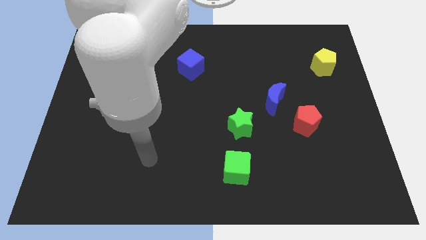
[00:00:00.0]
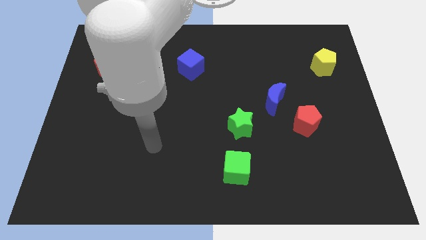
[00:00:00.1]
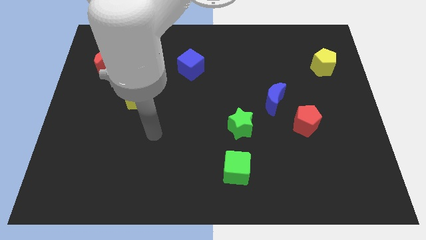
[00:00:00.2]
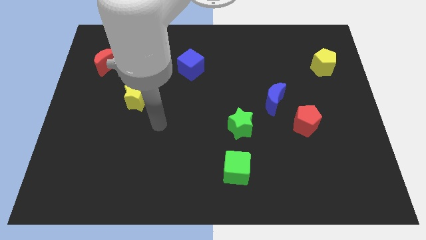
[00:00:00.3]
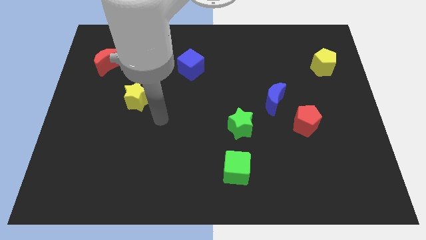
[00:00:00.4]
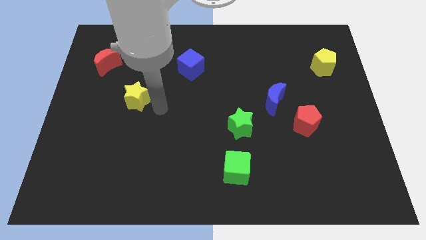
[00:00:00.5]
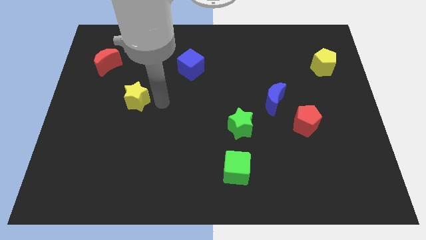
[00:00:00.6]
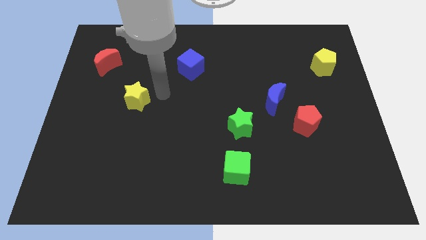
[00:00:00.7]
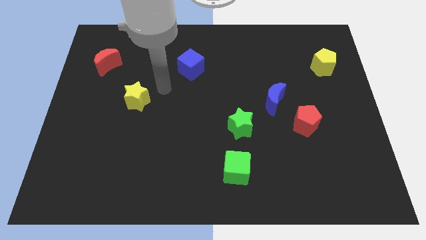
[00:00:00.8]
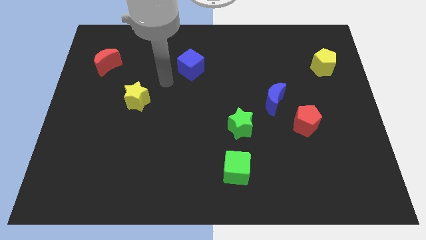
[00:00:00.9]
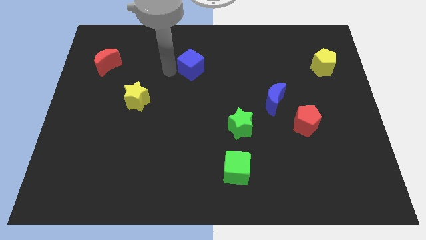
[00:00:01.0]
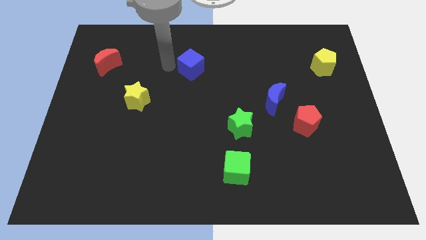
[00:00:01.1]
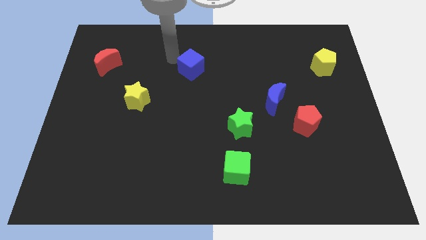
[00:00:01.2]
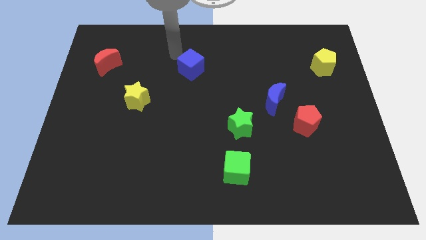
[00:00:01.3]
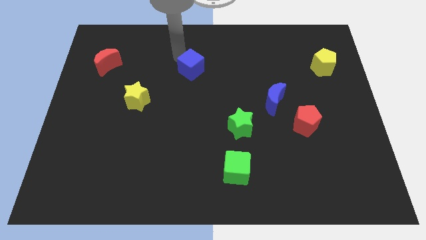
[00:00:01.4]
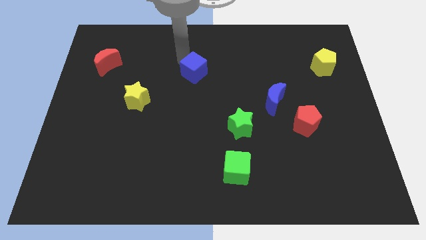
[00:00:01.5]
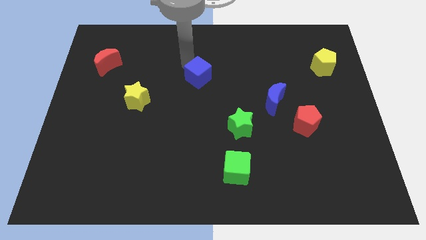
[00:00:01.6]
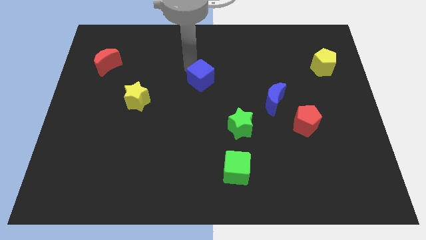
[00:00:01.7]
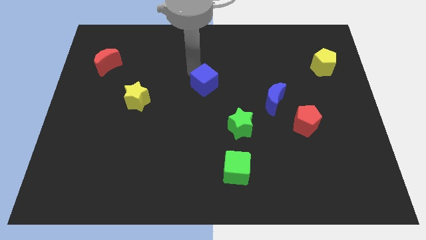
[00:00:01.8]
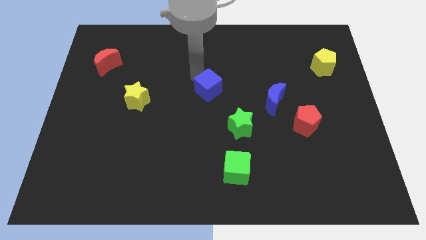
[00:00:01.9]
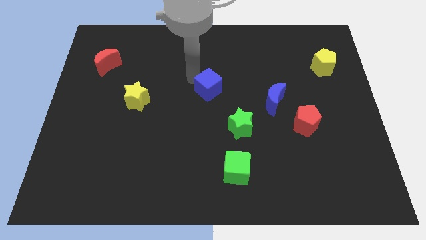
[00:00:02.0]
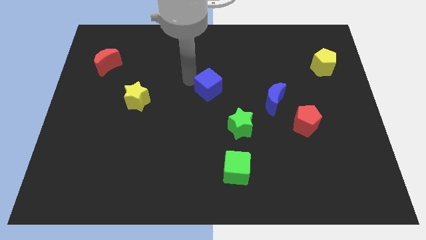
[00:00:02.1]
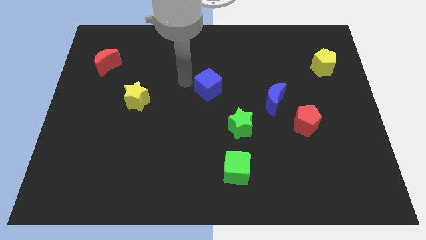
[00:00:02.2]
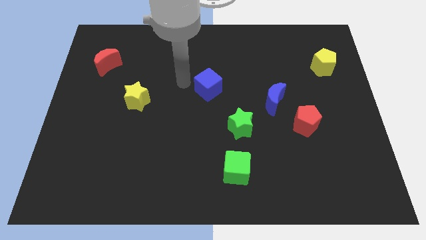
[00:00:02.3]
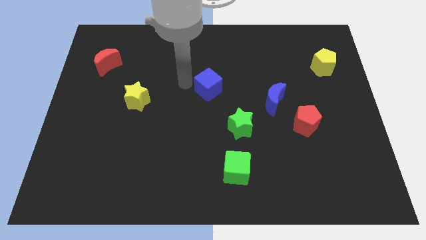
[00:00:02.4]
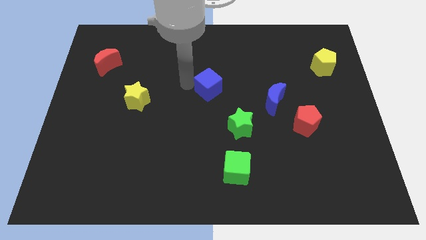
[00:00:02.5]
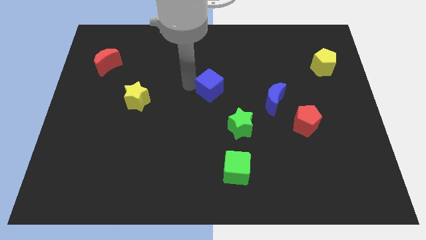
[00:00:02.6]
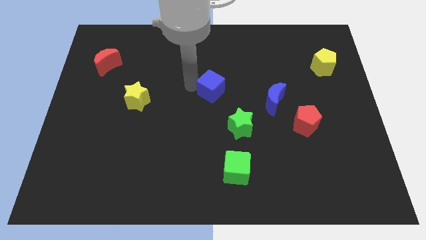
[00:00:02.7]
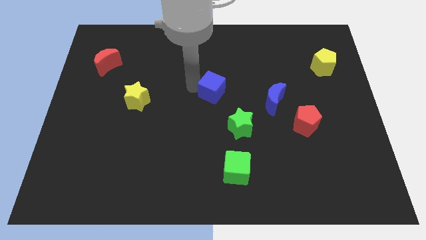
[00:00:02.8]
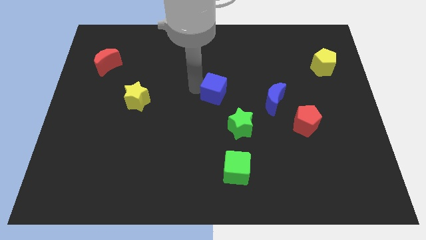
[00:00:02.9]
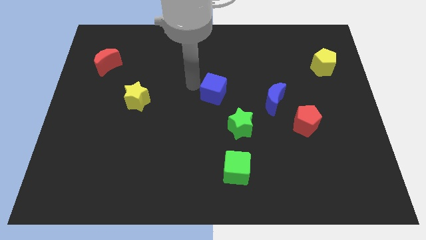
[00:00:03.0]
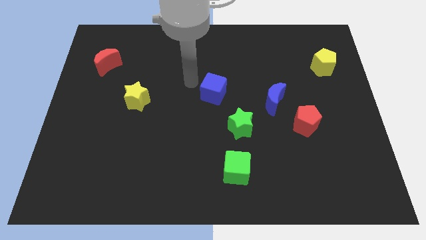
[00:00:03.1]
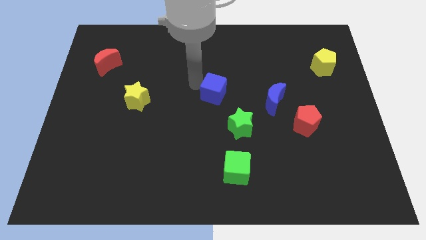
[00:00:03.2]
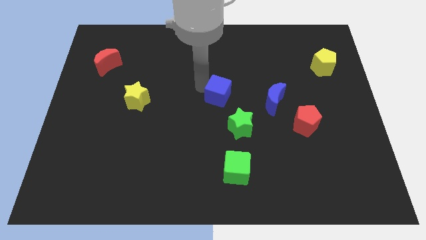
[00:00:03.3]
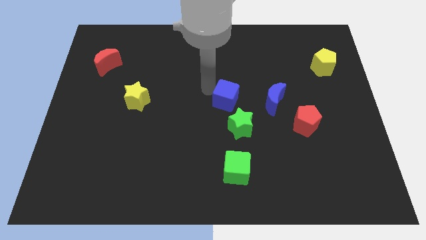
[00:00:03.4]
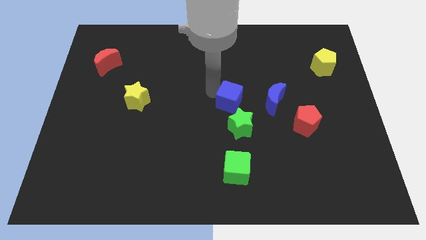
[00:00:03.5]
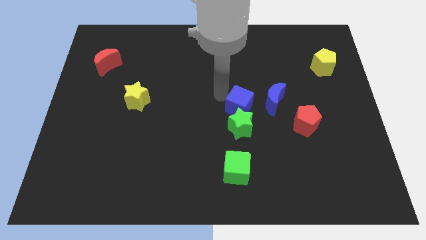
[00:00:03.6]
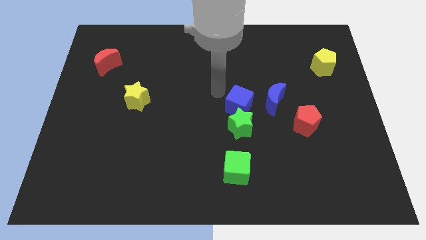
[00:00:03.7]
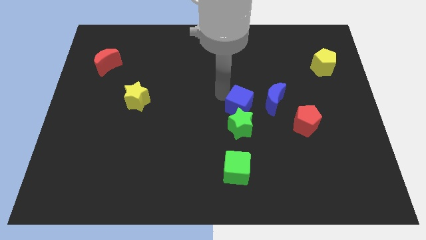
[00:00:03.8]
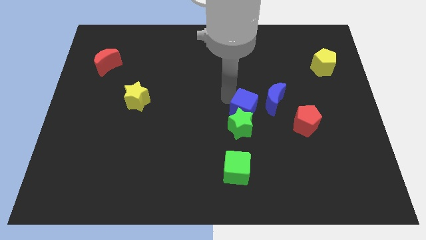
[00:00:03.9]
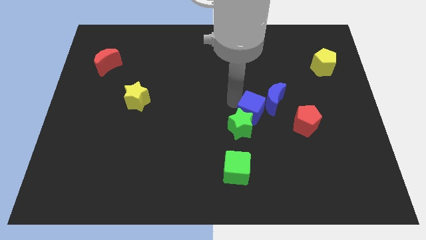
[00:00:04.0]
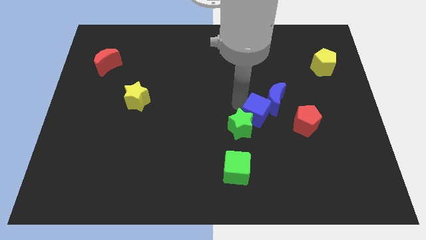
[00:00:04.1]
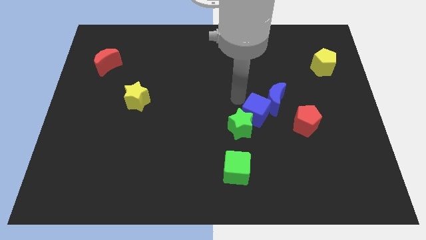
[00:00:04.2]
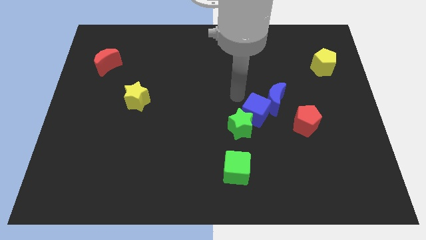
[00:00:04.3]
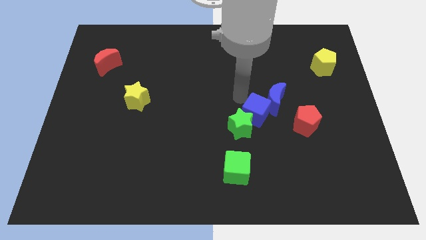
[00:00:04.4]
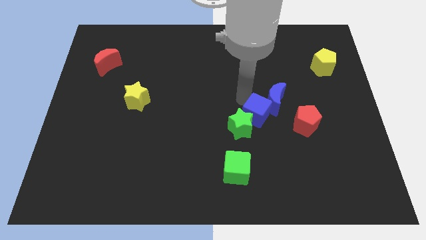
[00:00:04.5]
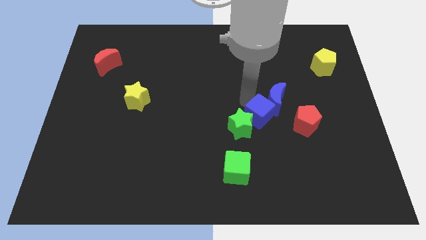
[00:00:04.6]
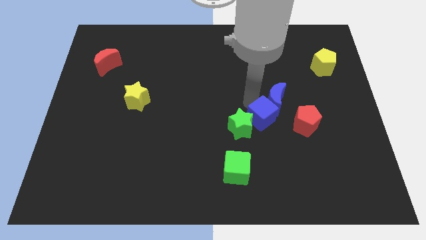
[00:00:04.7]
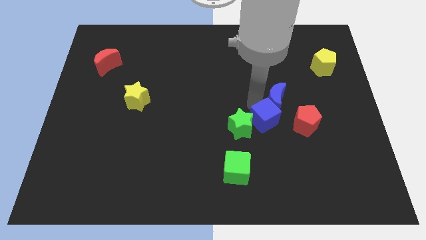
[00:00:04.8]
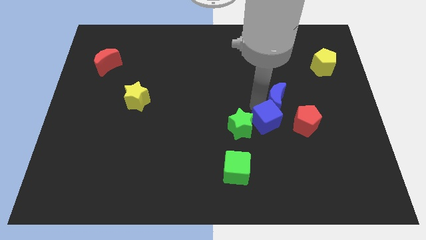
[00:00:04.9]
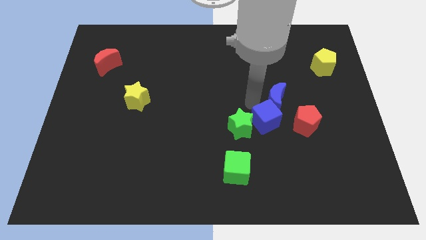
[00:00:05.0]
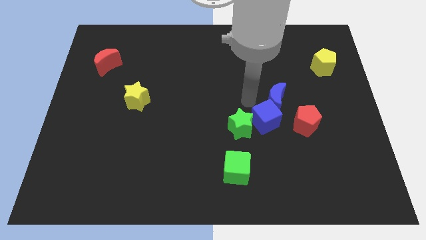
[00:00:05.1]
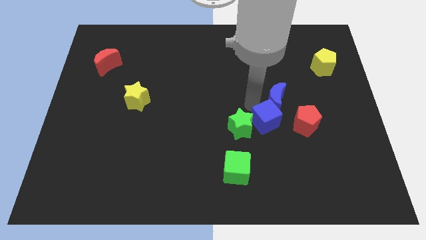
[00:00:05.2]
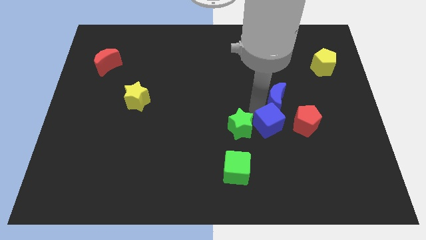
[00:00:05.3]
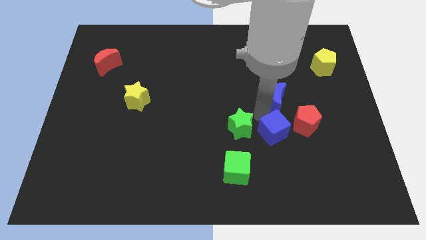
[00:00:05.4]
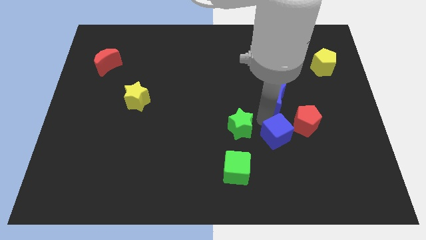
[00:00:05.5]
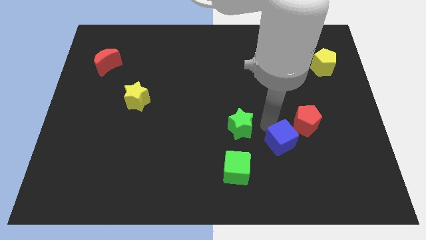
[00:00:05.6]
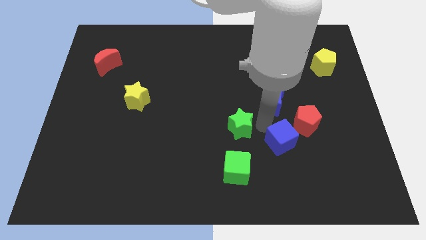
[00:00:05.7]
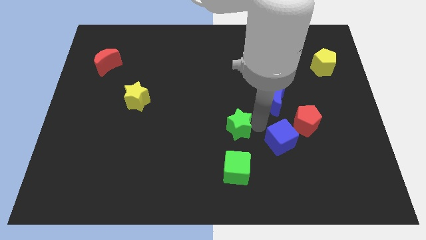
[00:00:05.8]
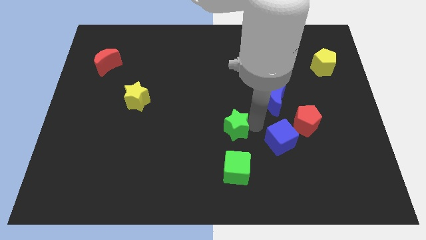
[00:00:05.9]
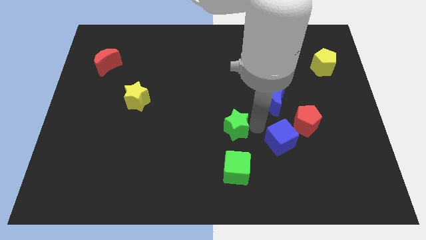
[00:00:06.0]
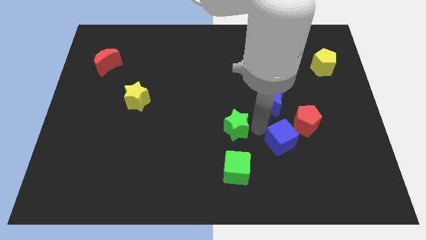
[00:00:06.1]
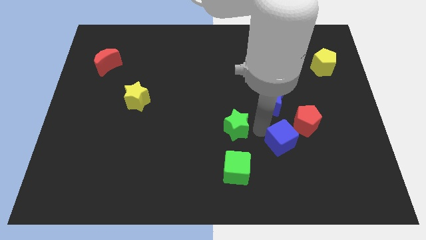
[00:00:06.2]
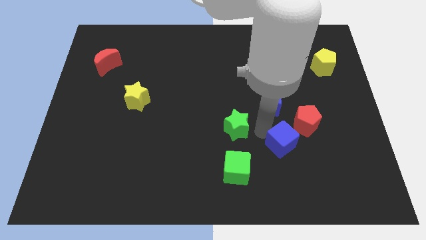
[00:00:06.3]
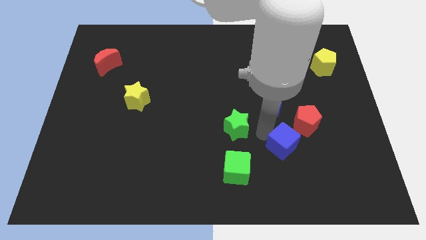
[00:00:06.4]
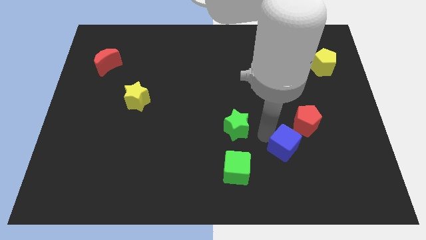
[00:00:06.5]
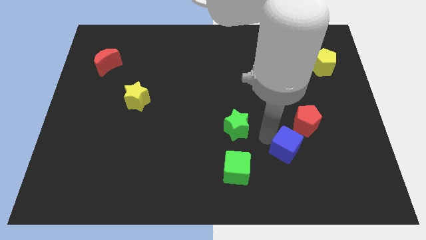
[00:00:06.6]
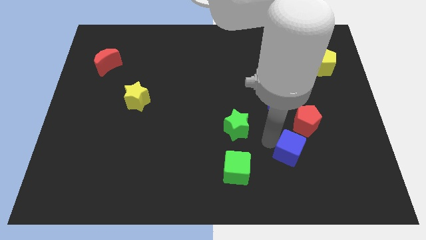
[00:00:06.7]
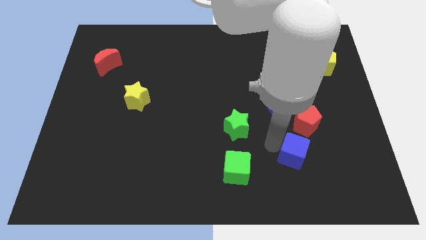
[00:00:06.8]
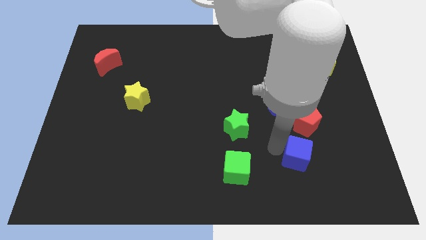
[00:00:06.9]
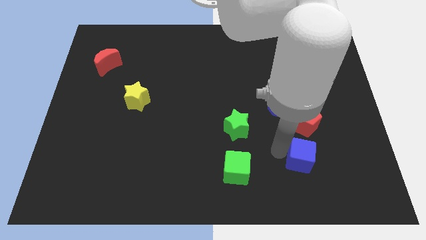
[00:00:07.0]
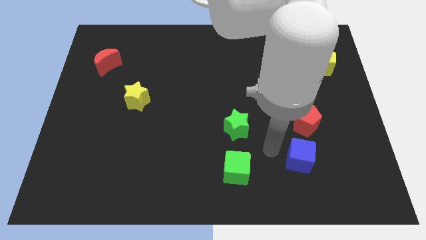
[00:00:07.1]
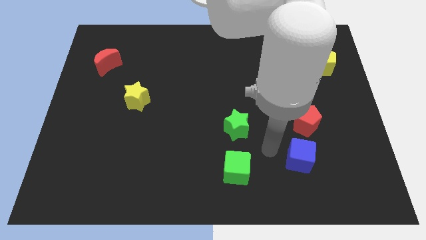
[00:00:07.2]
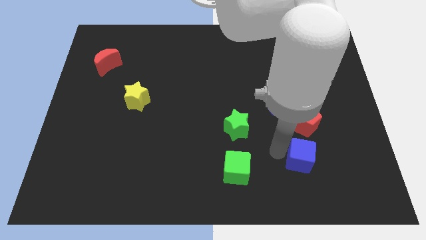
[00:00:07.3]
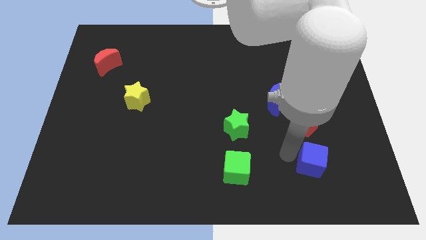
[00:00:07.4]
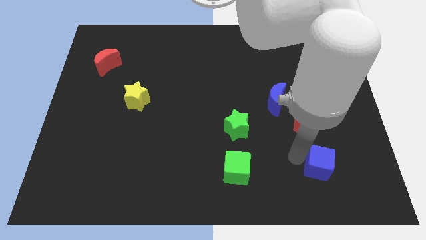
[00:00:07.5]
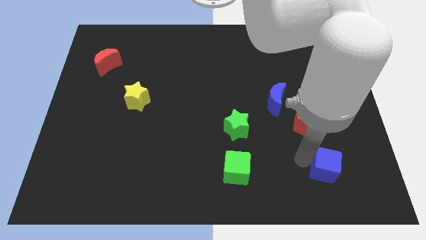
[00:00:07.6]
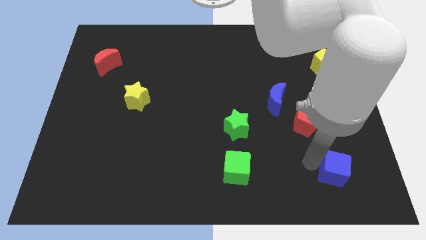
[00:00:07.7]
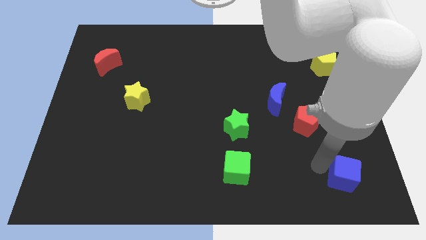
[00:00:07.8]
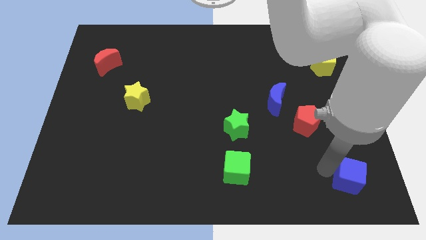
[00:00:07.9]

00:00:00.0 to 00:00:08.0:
slide the blue cube to the bottom right
